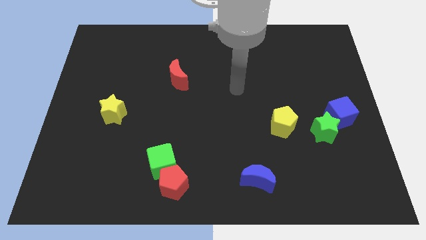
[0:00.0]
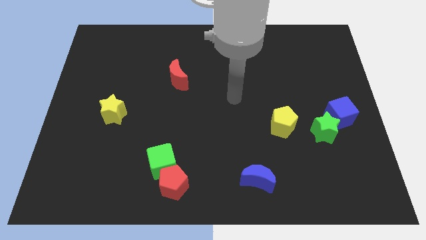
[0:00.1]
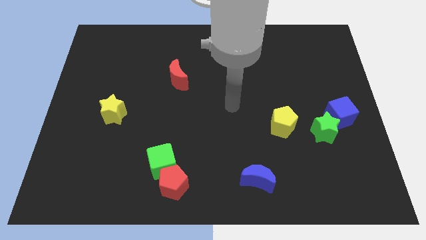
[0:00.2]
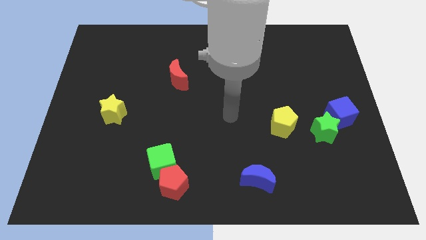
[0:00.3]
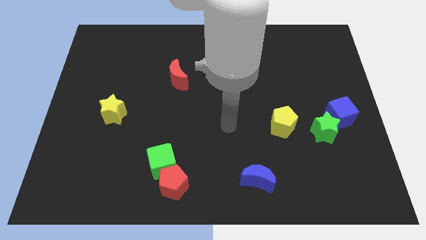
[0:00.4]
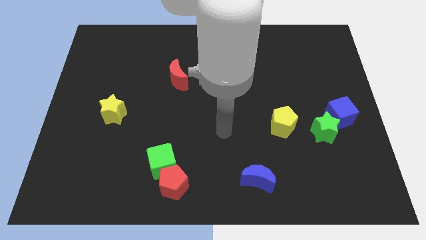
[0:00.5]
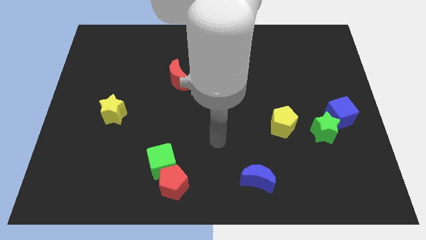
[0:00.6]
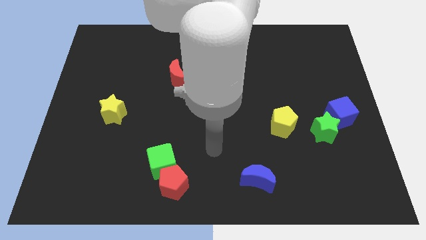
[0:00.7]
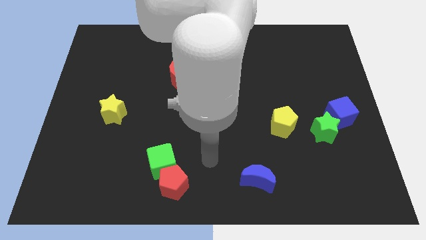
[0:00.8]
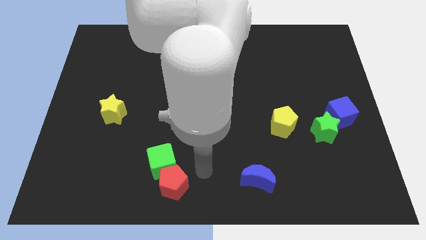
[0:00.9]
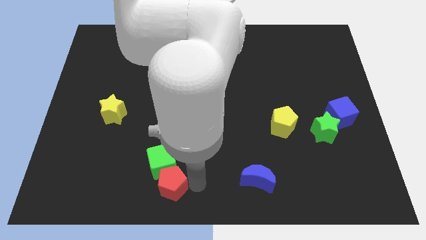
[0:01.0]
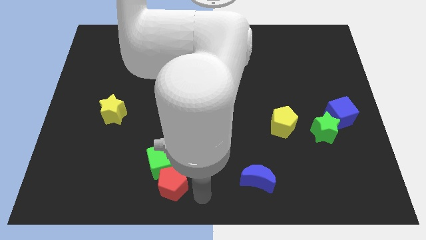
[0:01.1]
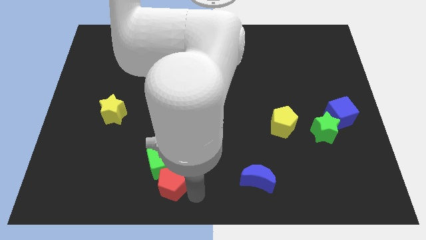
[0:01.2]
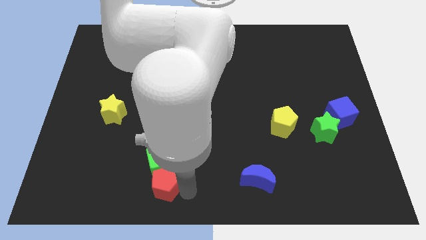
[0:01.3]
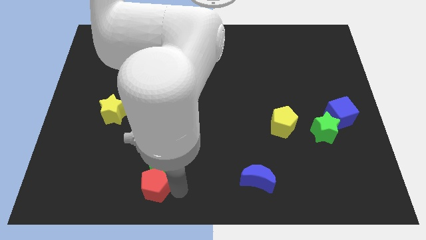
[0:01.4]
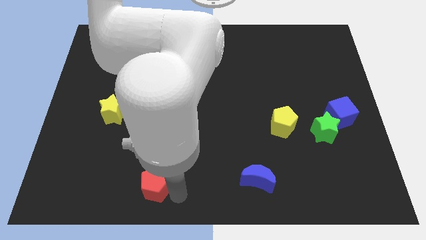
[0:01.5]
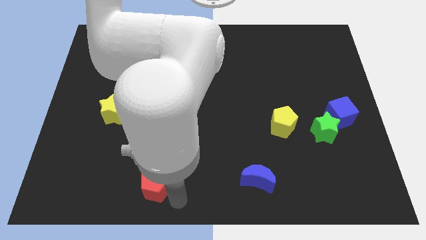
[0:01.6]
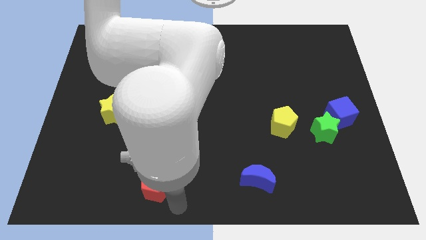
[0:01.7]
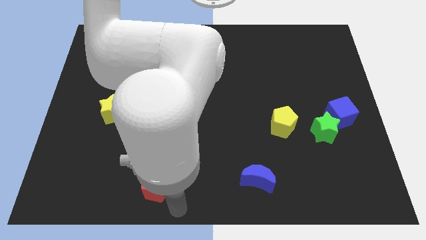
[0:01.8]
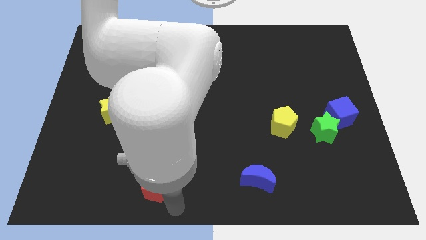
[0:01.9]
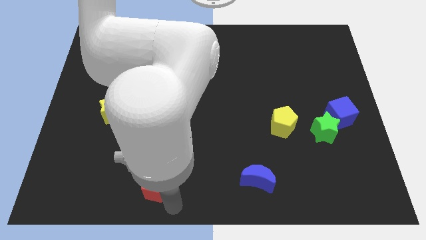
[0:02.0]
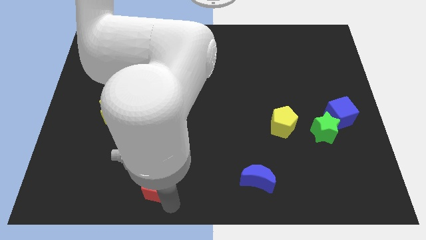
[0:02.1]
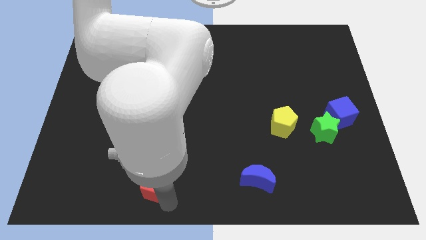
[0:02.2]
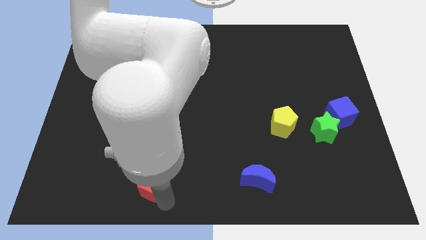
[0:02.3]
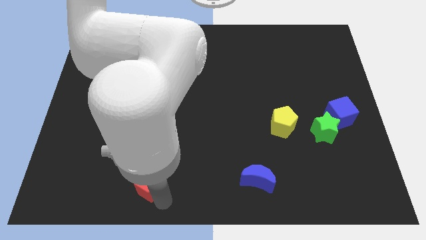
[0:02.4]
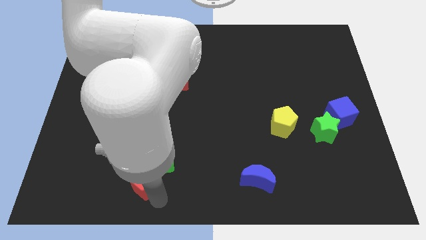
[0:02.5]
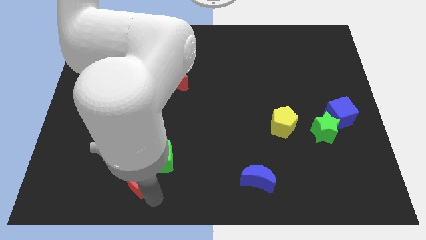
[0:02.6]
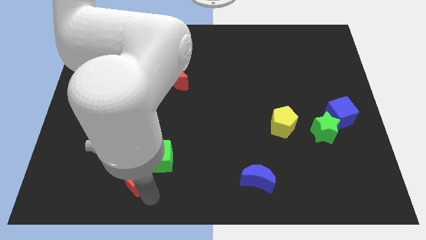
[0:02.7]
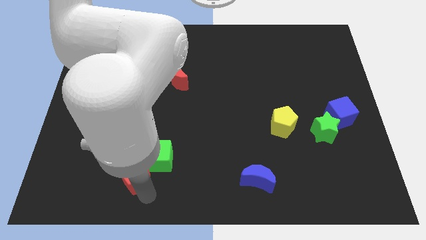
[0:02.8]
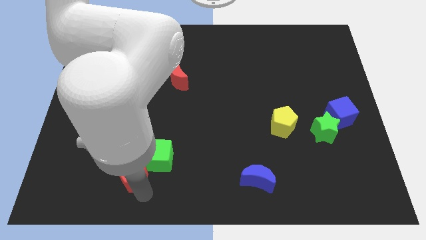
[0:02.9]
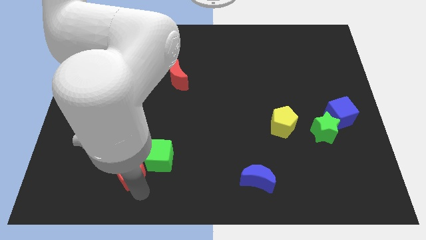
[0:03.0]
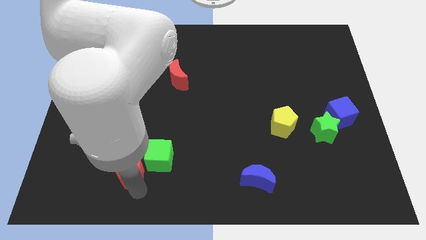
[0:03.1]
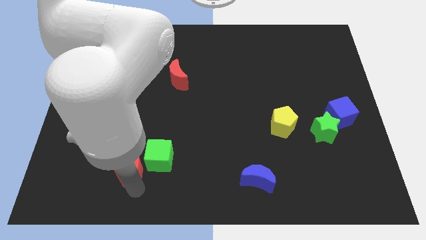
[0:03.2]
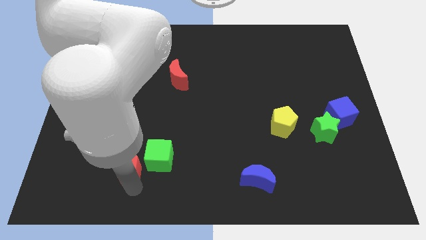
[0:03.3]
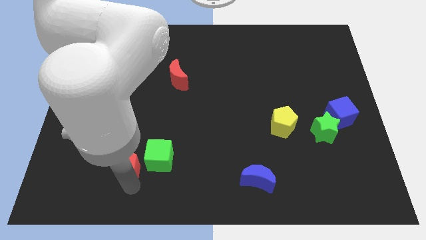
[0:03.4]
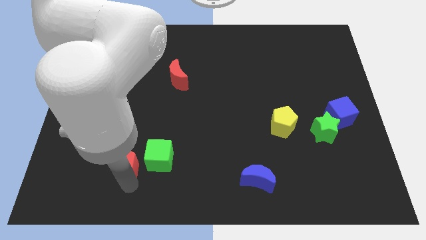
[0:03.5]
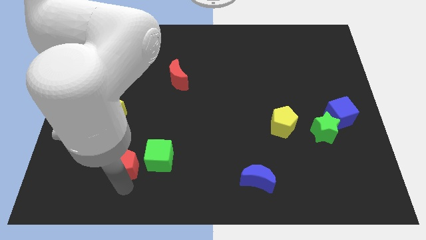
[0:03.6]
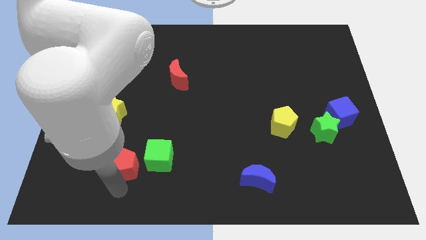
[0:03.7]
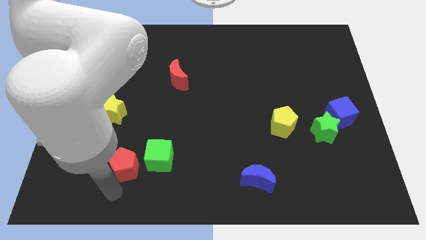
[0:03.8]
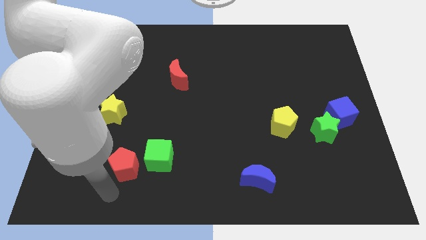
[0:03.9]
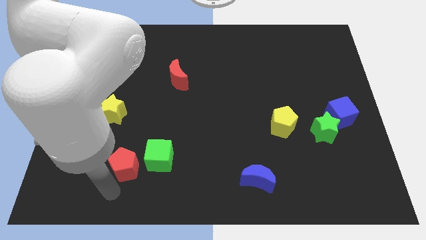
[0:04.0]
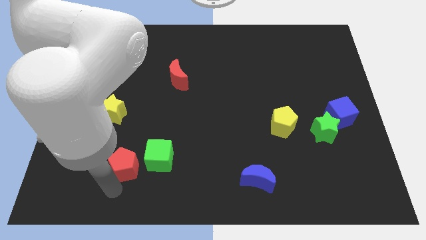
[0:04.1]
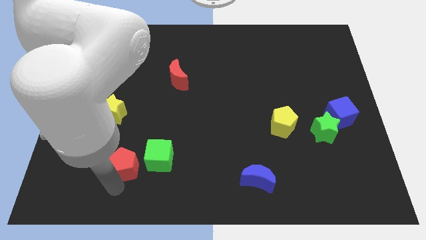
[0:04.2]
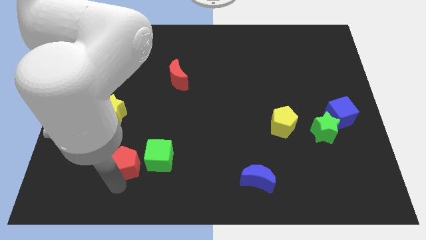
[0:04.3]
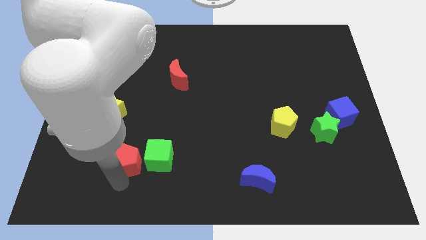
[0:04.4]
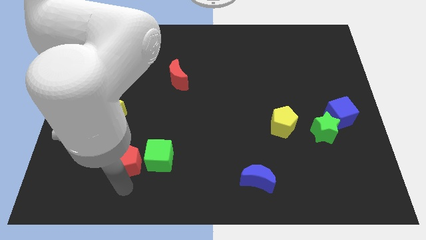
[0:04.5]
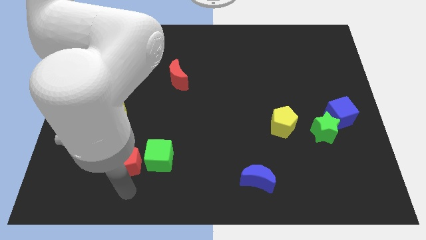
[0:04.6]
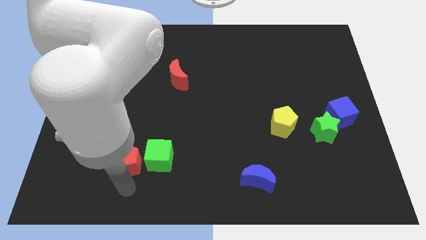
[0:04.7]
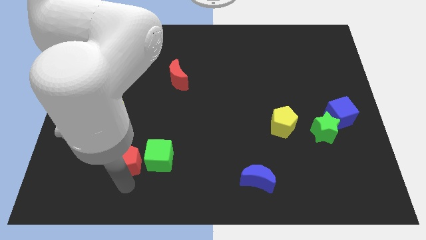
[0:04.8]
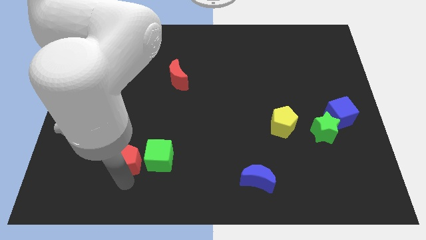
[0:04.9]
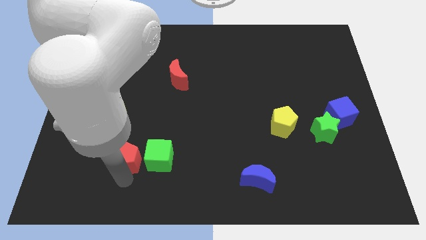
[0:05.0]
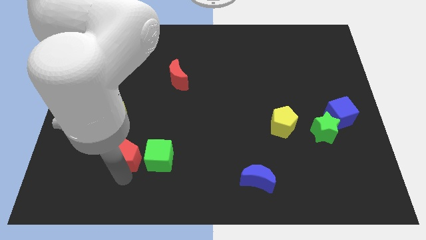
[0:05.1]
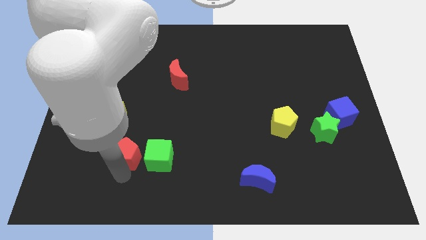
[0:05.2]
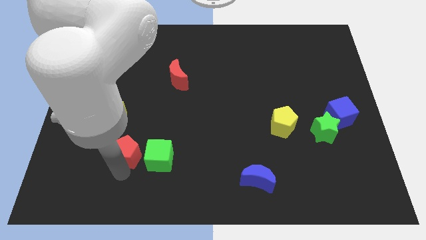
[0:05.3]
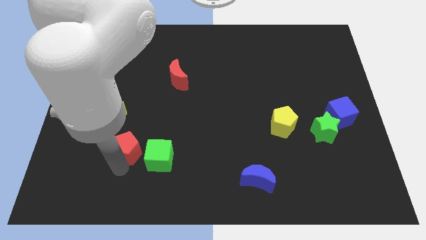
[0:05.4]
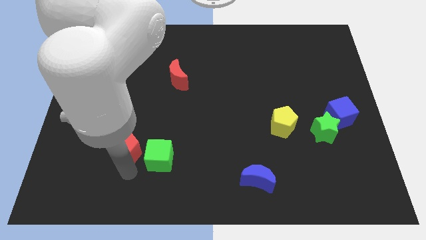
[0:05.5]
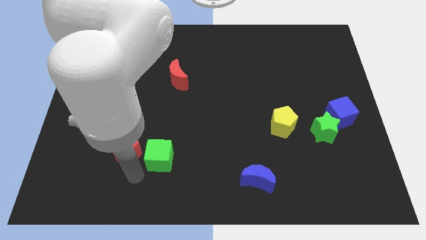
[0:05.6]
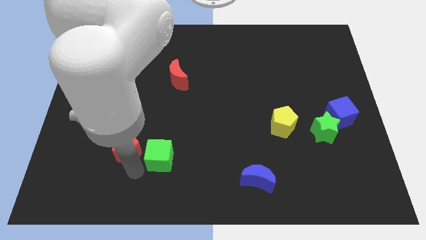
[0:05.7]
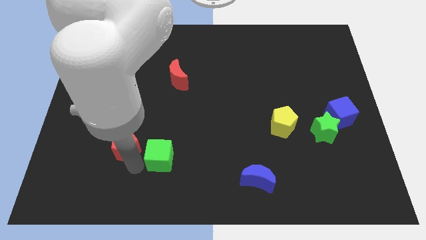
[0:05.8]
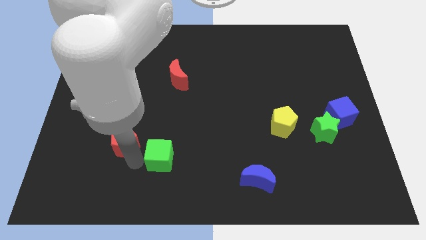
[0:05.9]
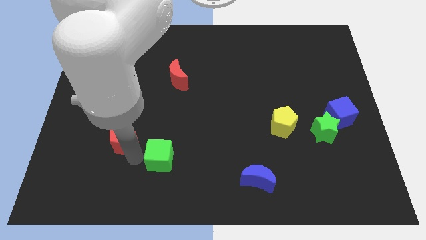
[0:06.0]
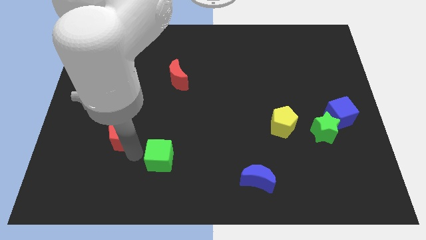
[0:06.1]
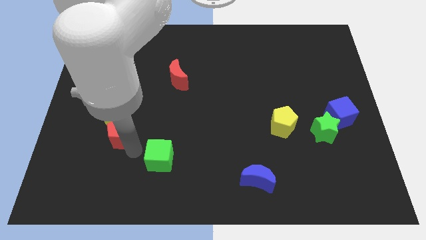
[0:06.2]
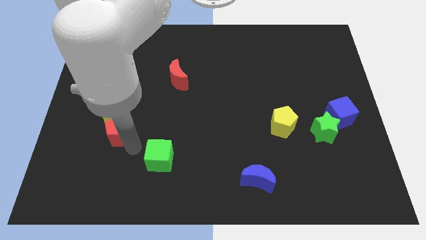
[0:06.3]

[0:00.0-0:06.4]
put the red pentagon towards the yellow star

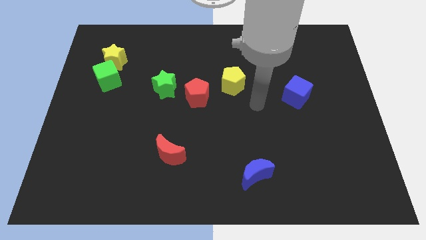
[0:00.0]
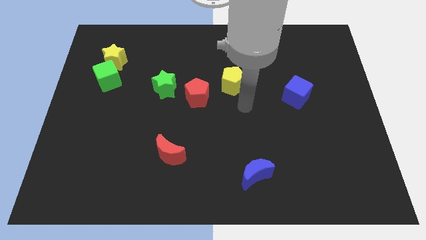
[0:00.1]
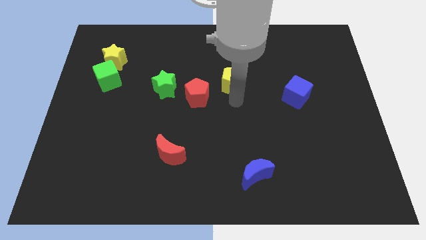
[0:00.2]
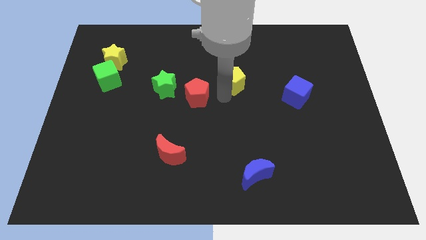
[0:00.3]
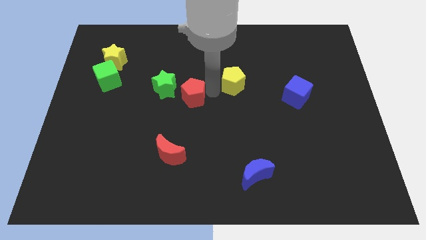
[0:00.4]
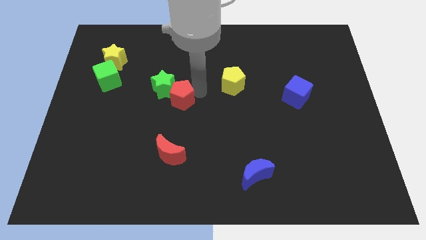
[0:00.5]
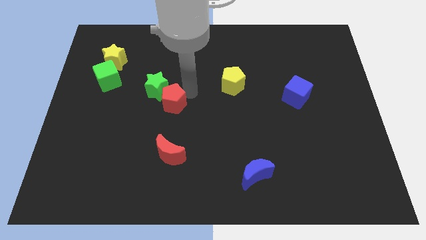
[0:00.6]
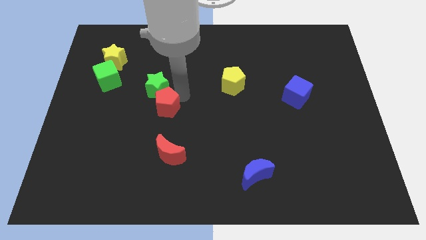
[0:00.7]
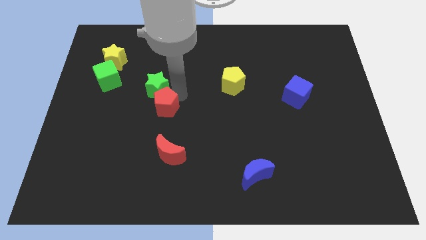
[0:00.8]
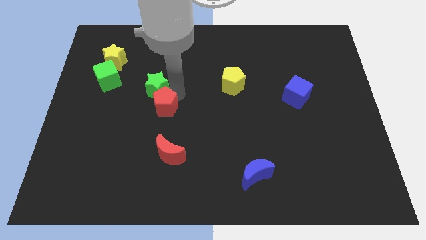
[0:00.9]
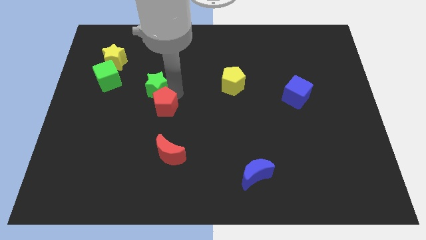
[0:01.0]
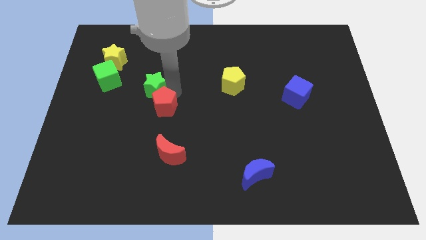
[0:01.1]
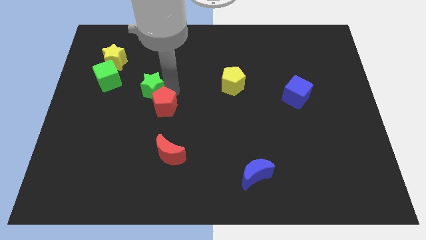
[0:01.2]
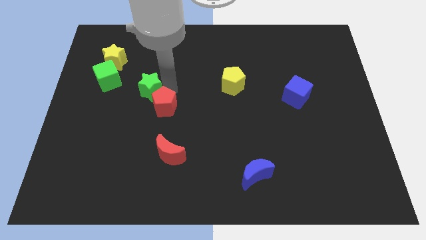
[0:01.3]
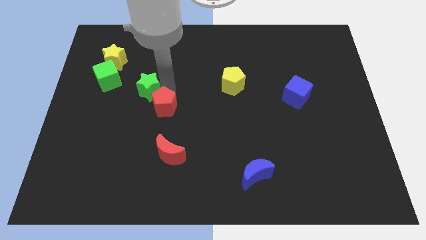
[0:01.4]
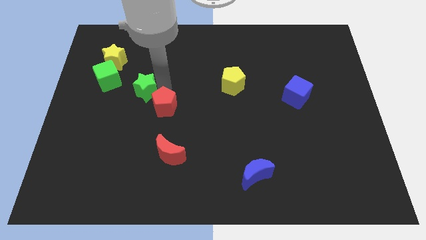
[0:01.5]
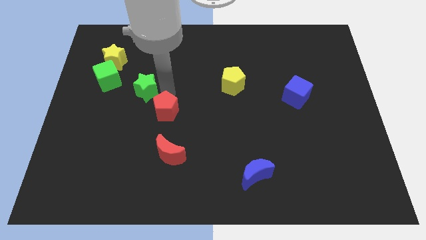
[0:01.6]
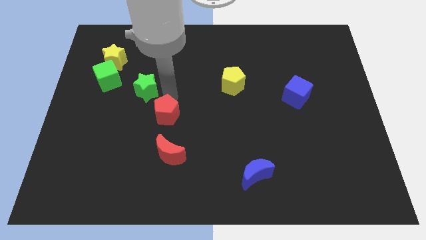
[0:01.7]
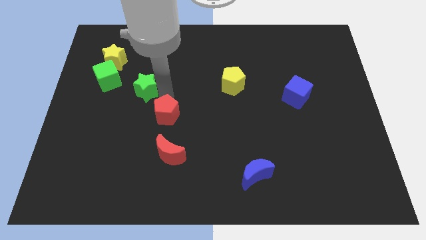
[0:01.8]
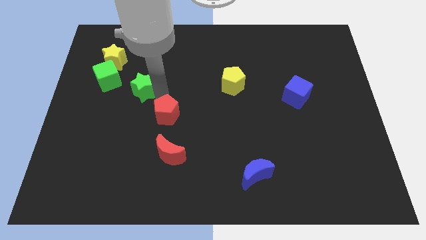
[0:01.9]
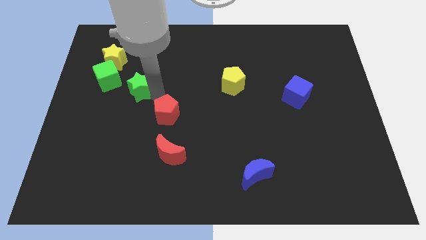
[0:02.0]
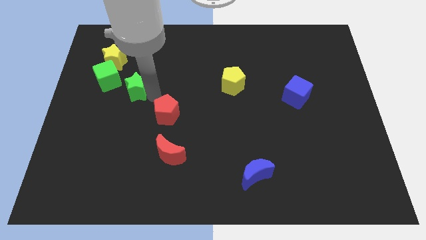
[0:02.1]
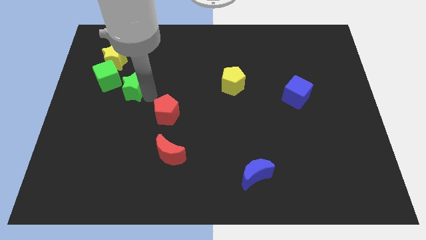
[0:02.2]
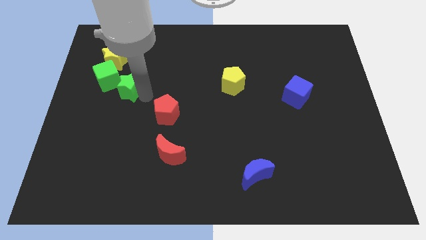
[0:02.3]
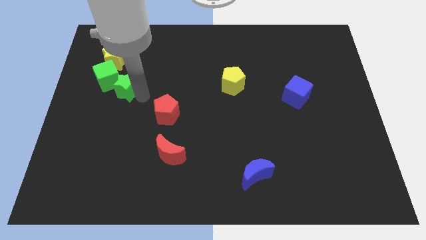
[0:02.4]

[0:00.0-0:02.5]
move the green star next to the green cube
